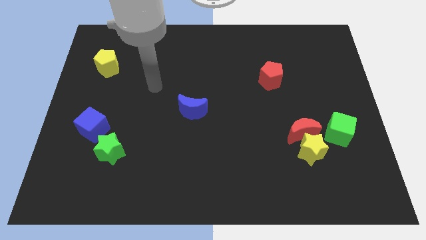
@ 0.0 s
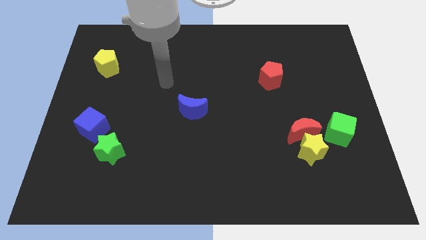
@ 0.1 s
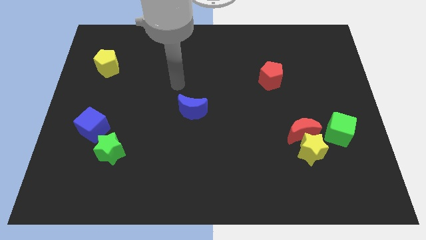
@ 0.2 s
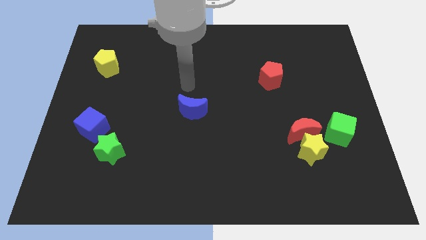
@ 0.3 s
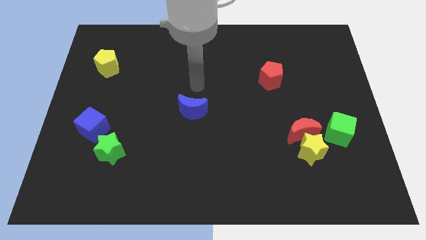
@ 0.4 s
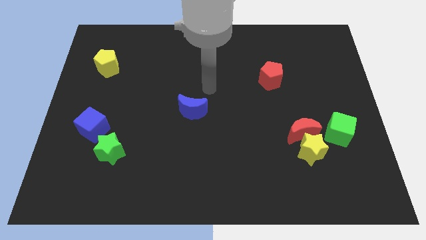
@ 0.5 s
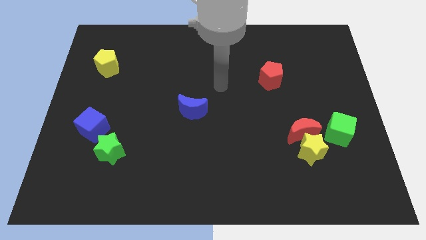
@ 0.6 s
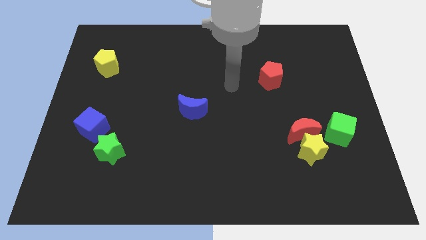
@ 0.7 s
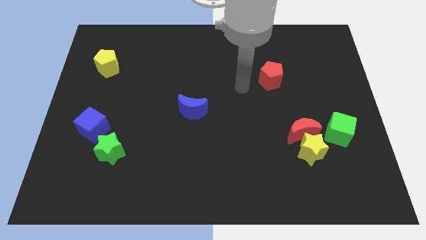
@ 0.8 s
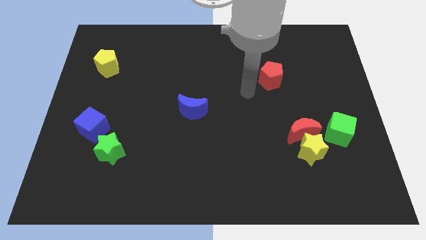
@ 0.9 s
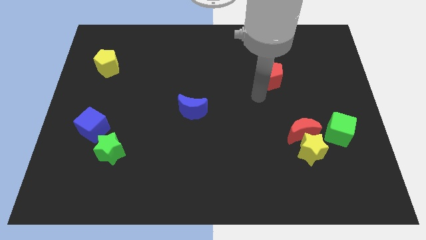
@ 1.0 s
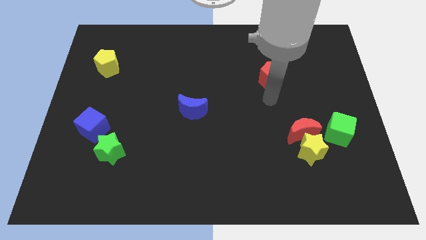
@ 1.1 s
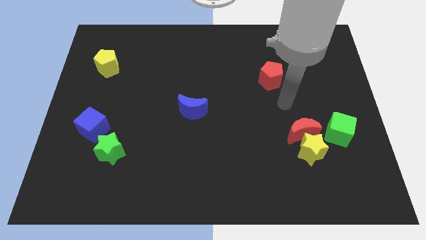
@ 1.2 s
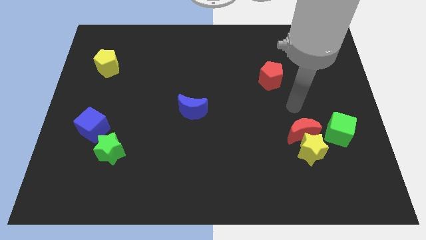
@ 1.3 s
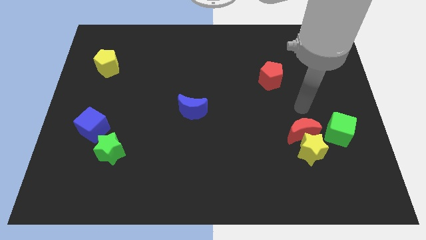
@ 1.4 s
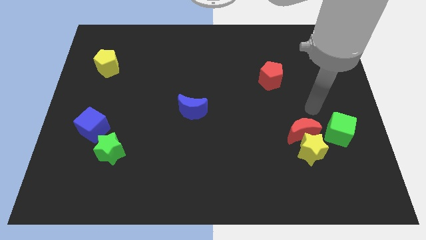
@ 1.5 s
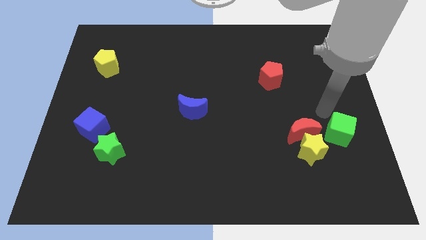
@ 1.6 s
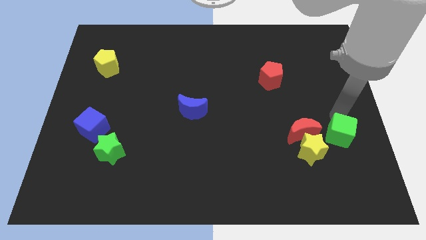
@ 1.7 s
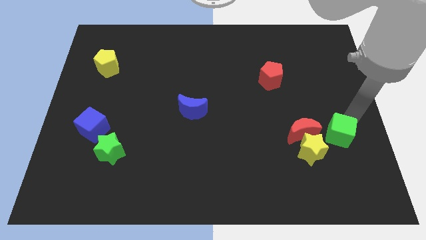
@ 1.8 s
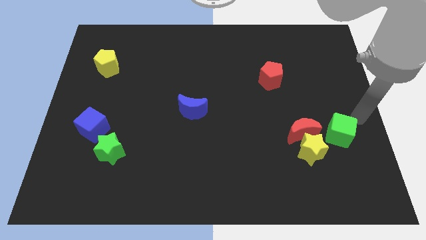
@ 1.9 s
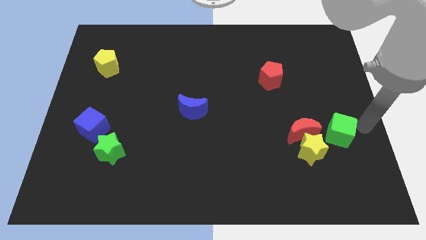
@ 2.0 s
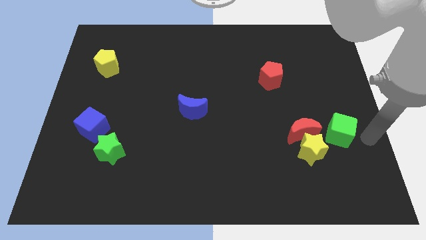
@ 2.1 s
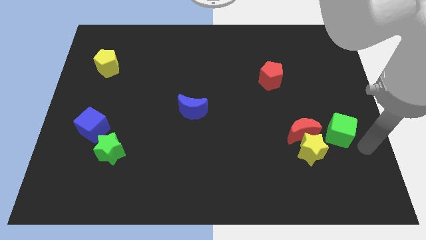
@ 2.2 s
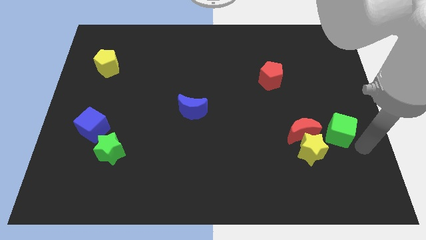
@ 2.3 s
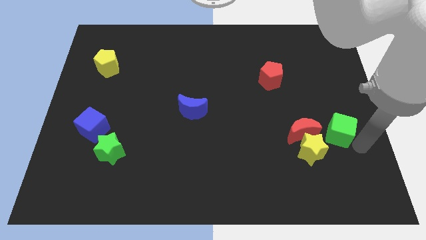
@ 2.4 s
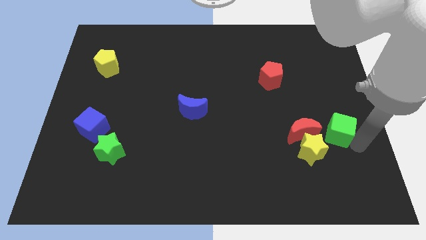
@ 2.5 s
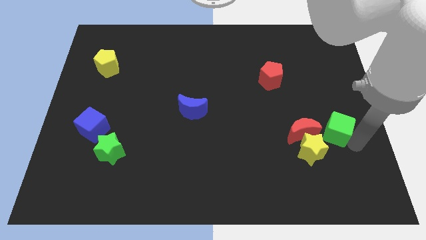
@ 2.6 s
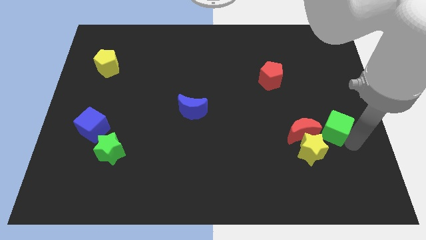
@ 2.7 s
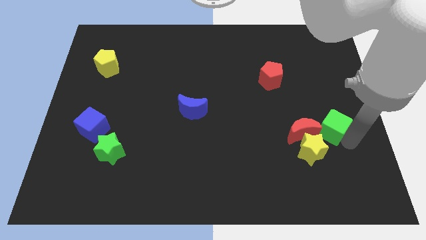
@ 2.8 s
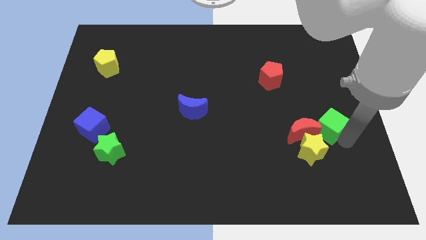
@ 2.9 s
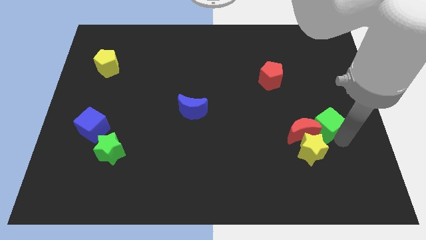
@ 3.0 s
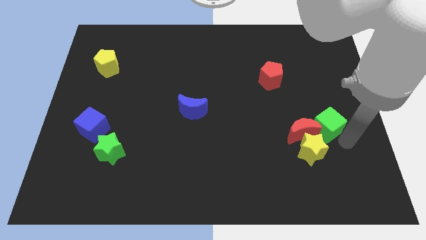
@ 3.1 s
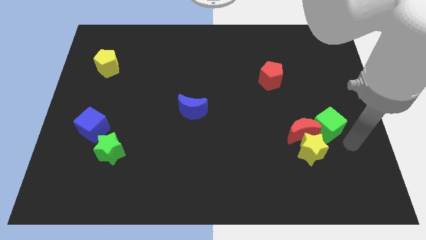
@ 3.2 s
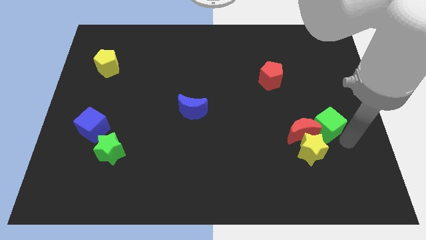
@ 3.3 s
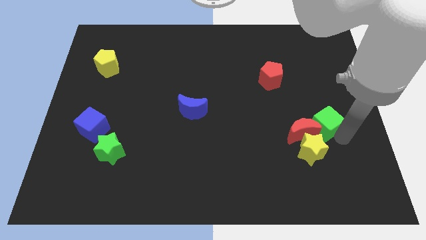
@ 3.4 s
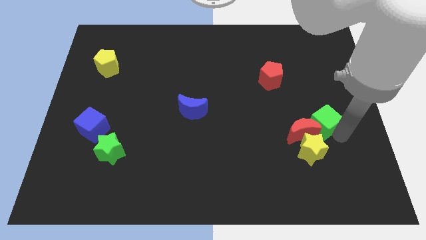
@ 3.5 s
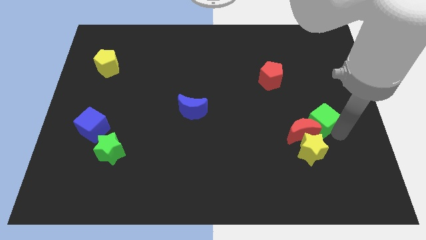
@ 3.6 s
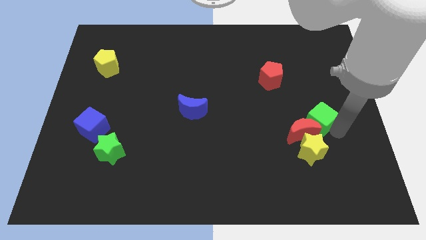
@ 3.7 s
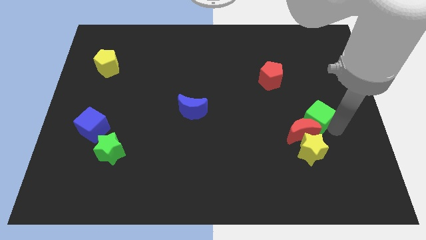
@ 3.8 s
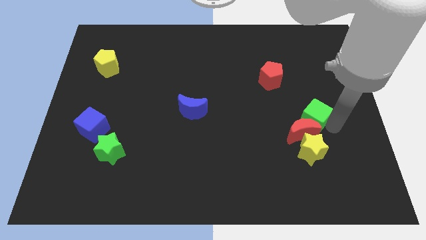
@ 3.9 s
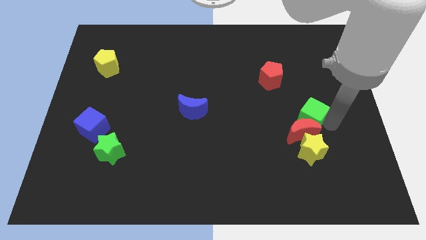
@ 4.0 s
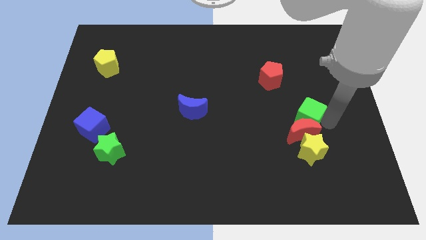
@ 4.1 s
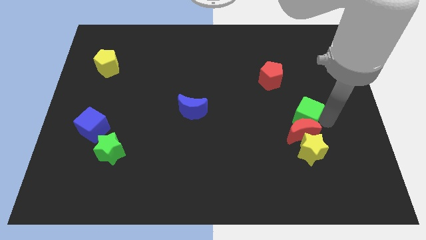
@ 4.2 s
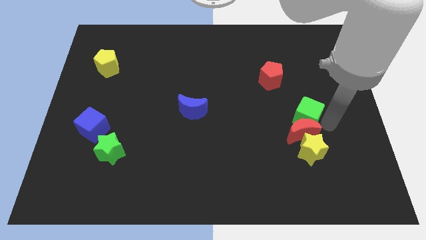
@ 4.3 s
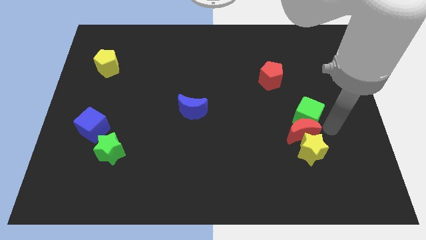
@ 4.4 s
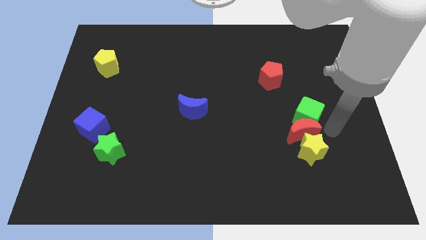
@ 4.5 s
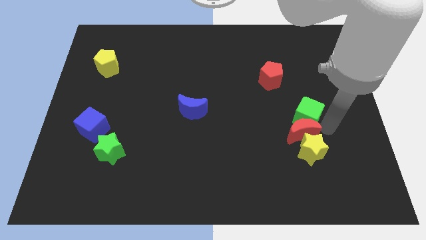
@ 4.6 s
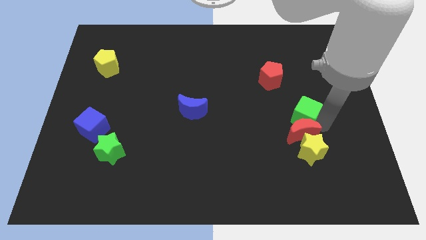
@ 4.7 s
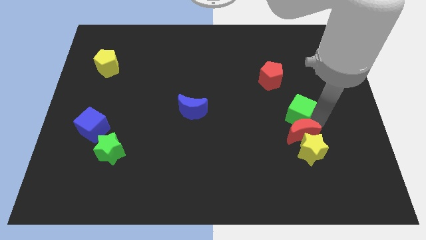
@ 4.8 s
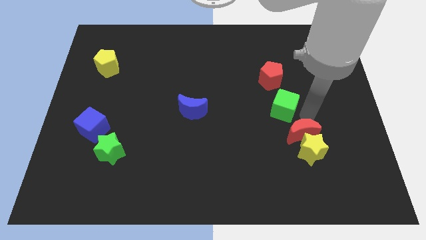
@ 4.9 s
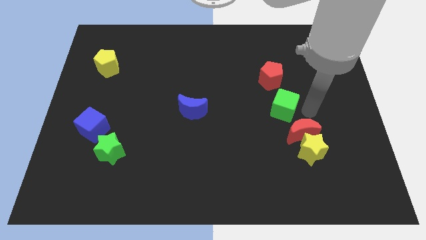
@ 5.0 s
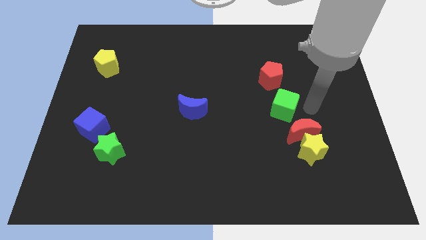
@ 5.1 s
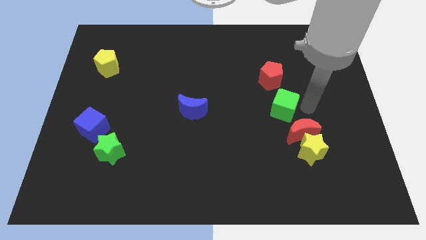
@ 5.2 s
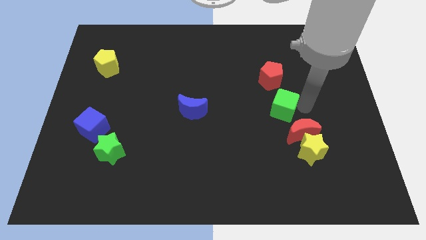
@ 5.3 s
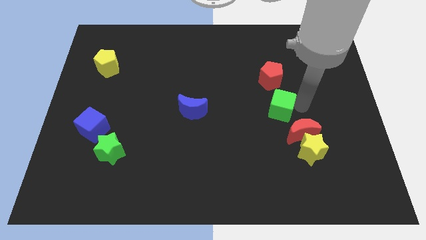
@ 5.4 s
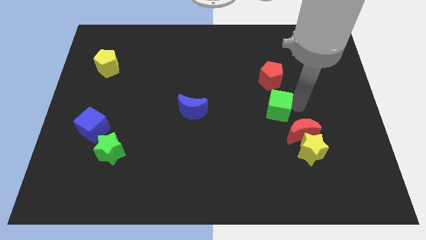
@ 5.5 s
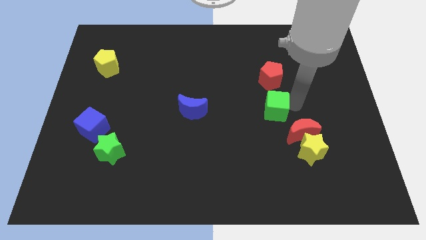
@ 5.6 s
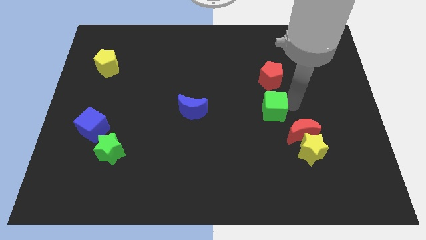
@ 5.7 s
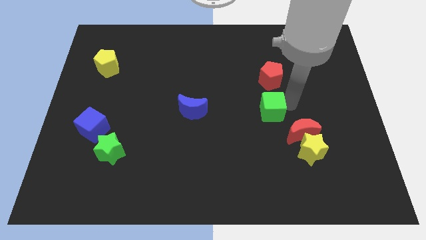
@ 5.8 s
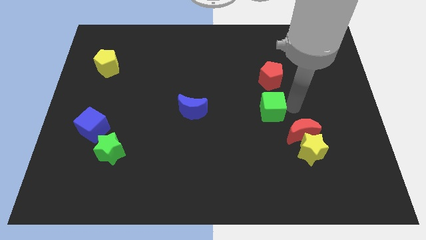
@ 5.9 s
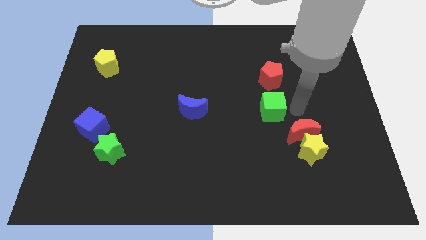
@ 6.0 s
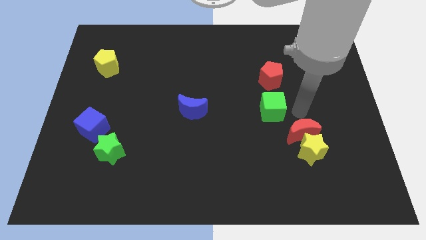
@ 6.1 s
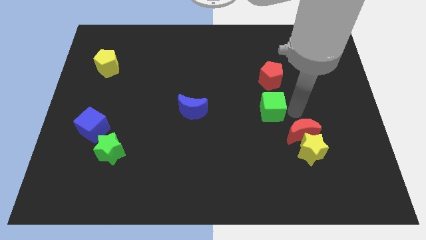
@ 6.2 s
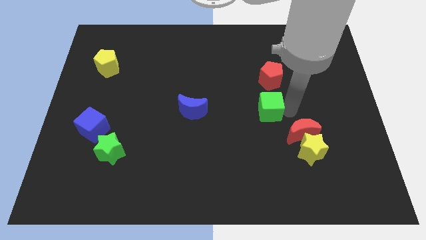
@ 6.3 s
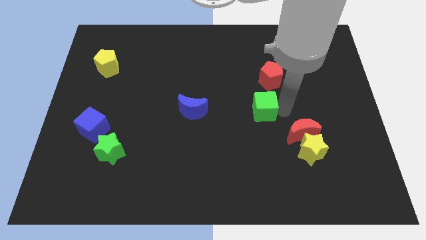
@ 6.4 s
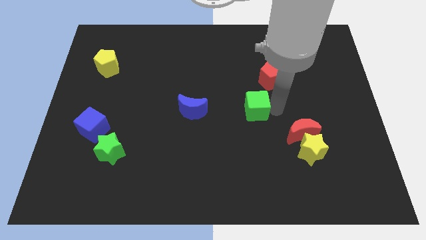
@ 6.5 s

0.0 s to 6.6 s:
push the green cube just right of the blue moon

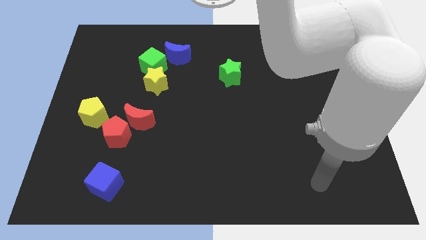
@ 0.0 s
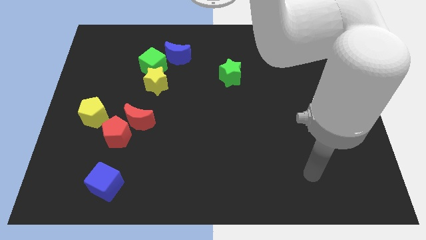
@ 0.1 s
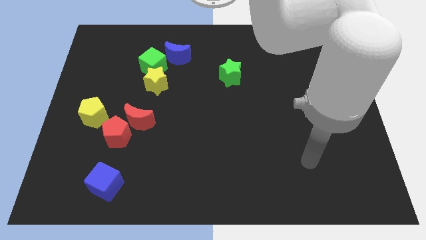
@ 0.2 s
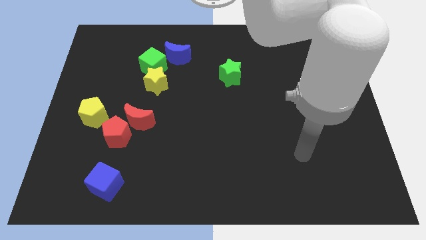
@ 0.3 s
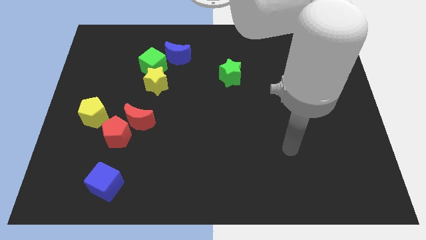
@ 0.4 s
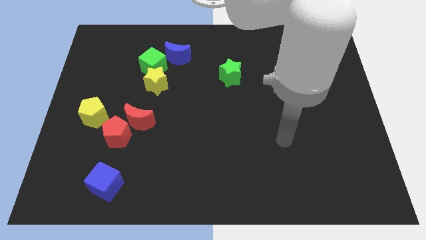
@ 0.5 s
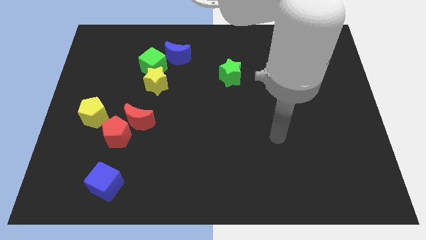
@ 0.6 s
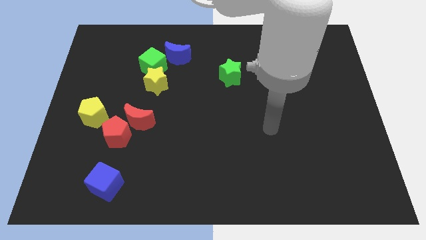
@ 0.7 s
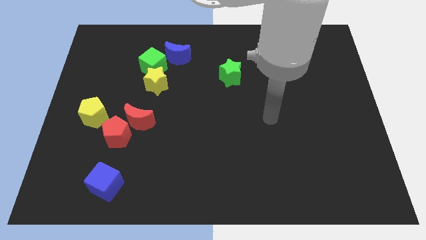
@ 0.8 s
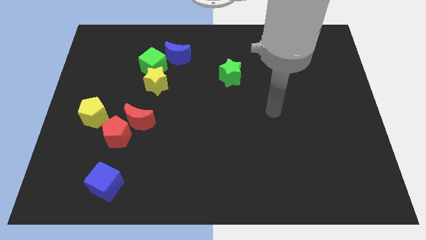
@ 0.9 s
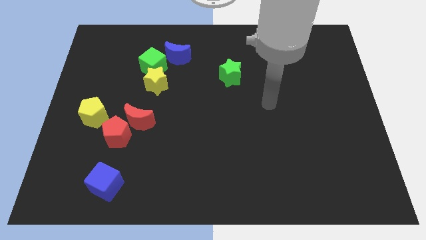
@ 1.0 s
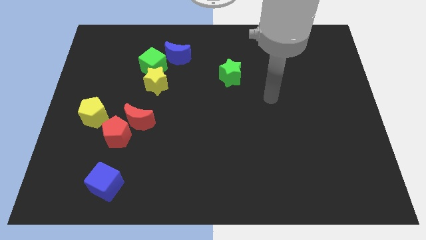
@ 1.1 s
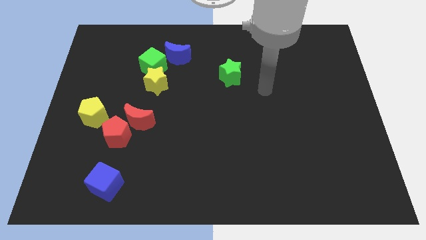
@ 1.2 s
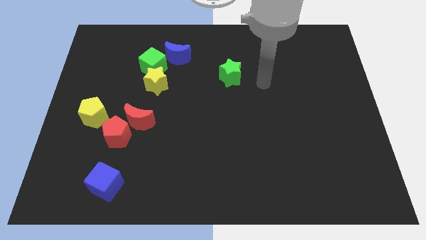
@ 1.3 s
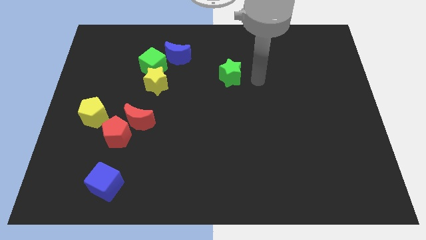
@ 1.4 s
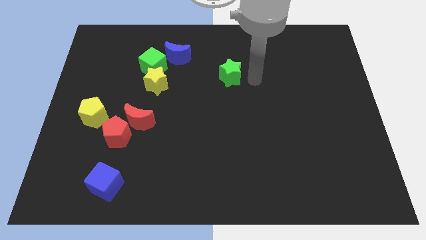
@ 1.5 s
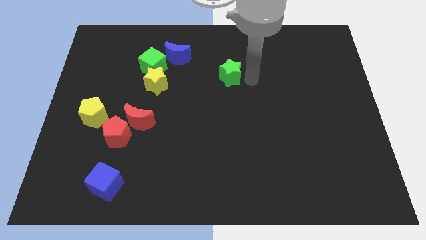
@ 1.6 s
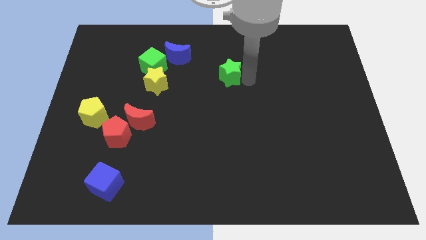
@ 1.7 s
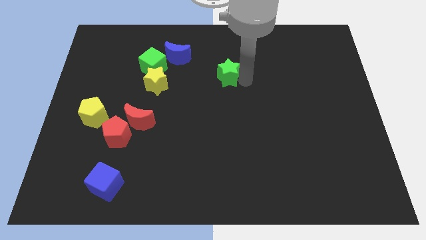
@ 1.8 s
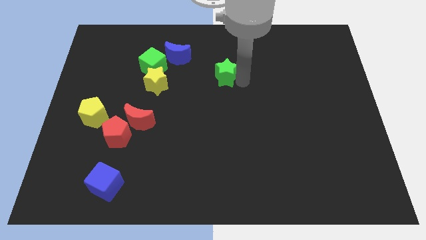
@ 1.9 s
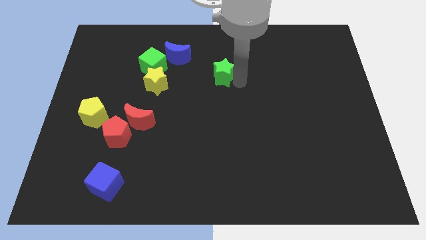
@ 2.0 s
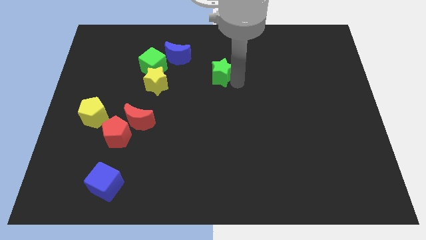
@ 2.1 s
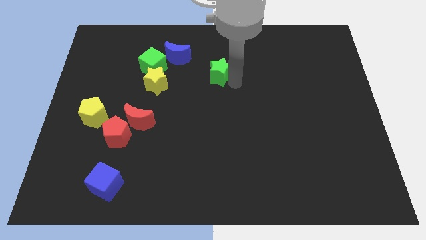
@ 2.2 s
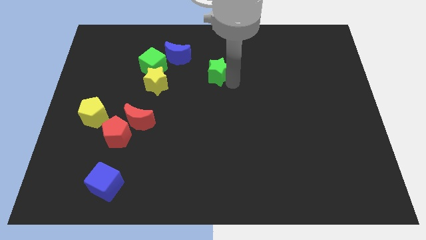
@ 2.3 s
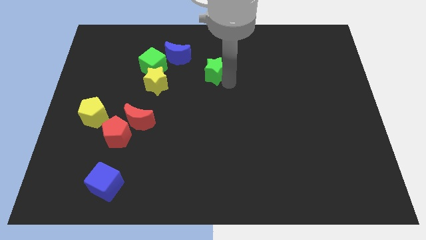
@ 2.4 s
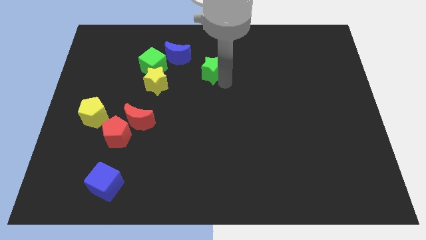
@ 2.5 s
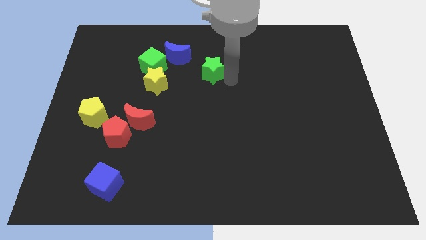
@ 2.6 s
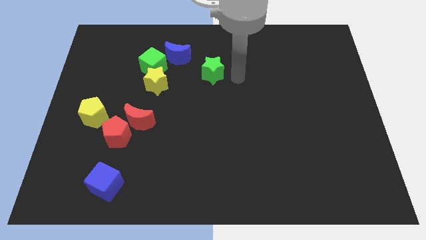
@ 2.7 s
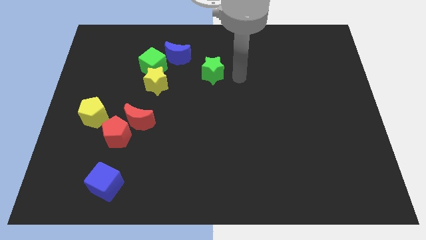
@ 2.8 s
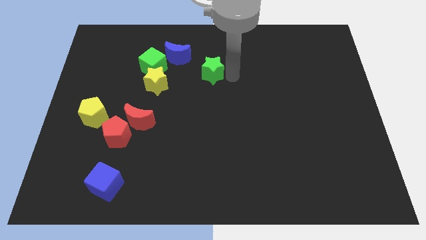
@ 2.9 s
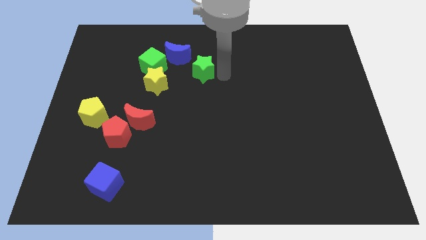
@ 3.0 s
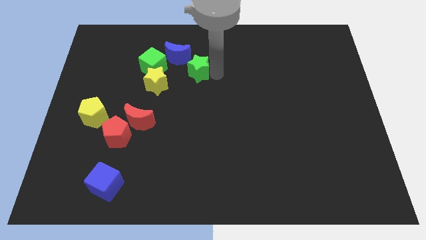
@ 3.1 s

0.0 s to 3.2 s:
push the green star diagonally up and to the right of the yellow star
